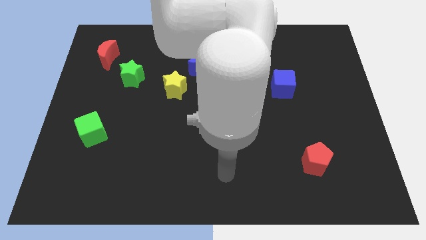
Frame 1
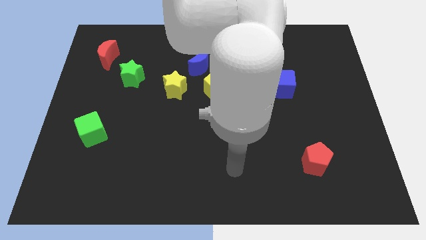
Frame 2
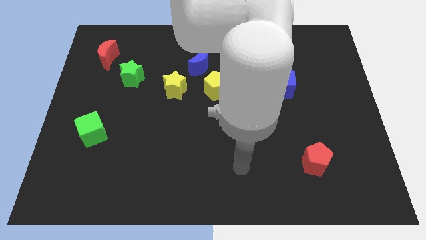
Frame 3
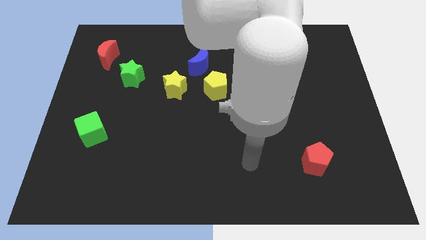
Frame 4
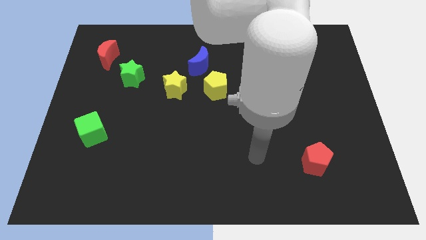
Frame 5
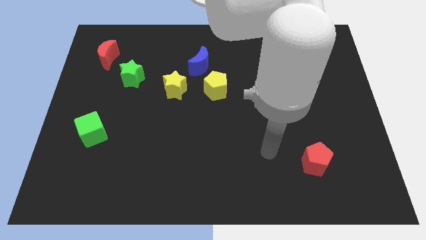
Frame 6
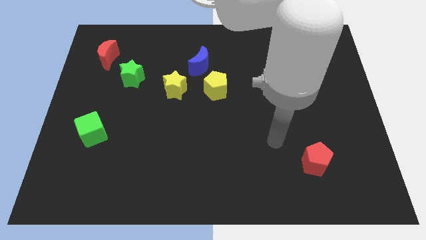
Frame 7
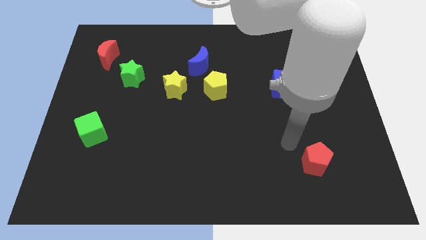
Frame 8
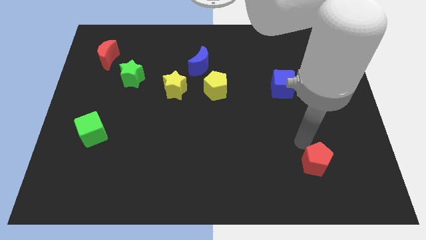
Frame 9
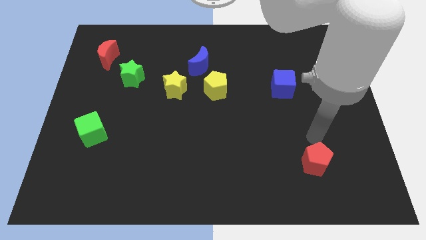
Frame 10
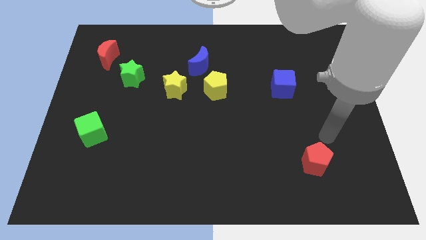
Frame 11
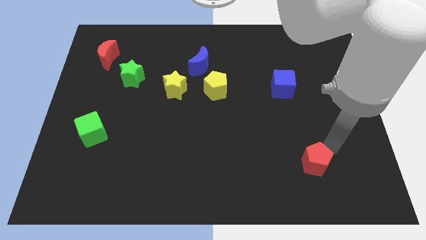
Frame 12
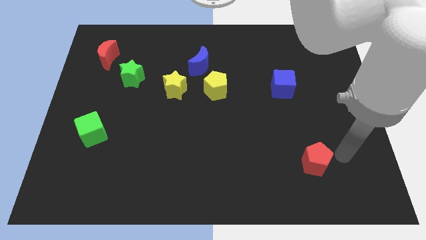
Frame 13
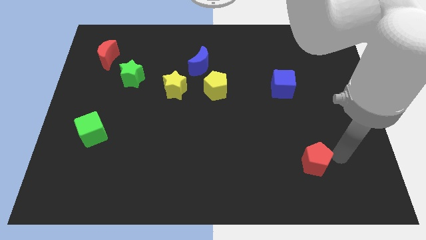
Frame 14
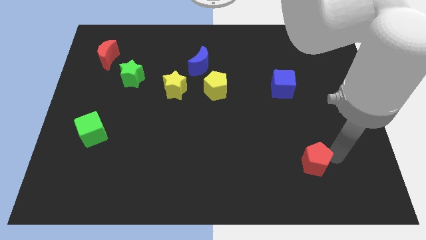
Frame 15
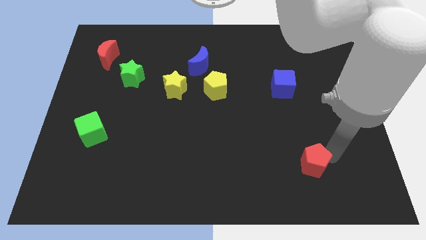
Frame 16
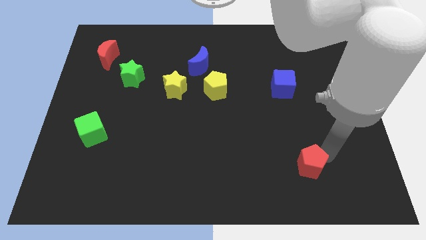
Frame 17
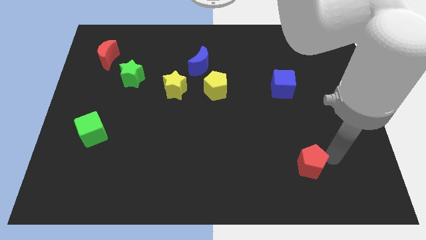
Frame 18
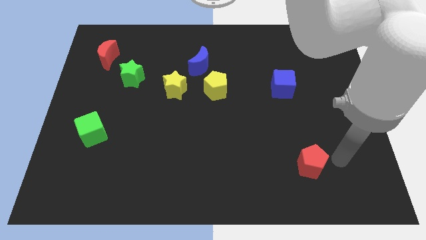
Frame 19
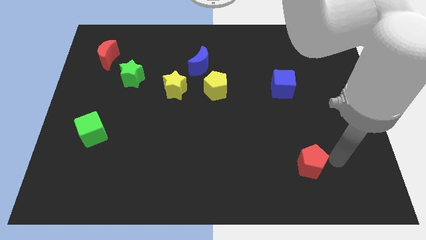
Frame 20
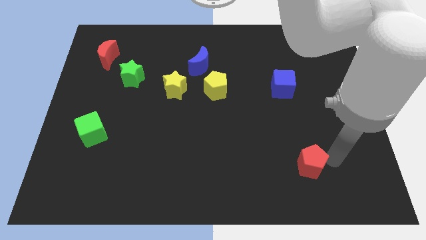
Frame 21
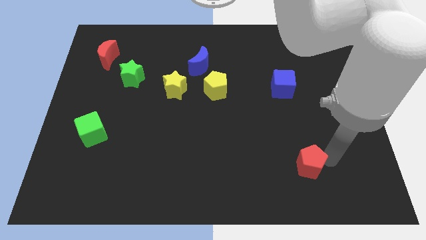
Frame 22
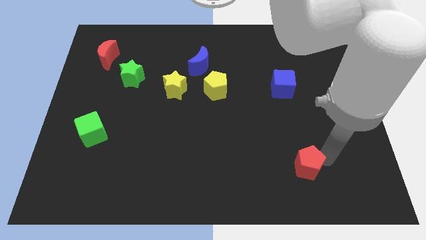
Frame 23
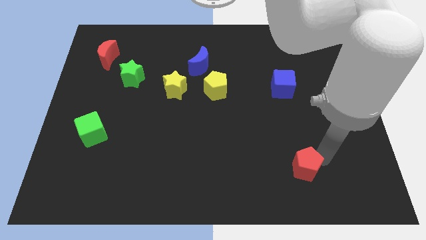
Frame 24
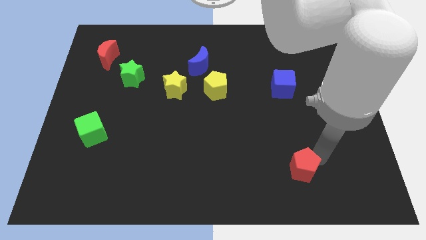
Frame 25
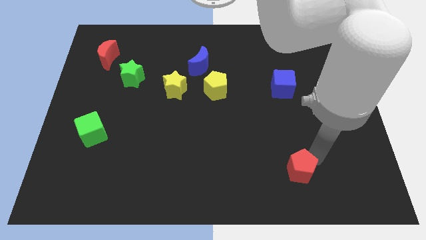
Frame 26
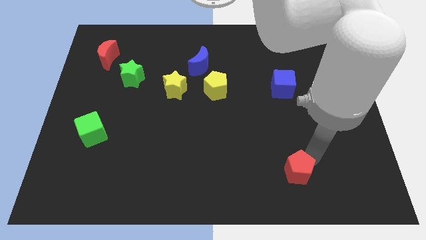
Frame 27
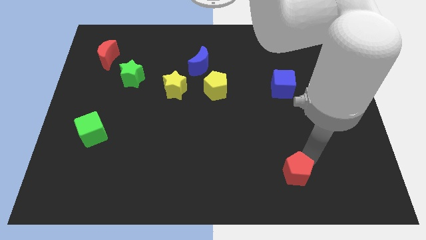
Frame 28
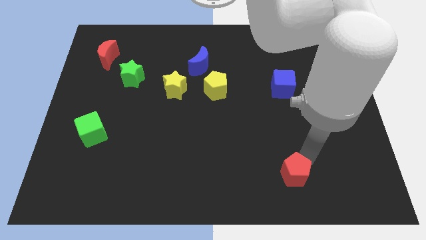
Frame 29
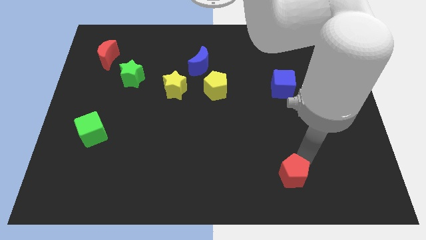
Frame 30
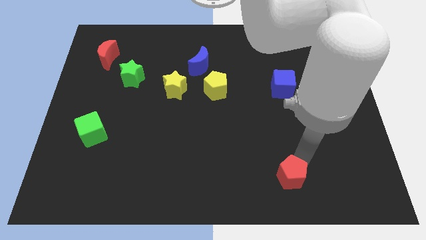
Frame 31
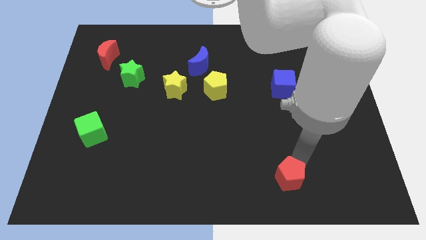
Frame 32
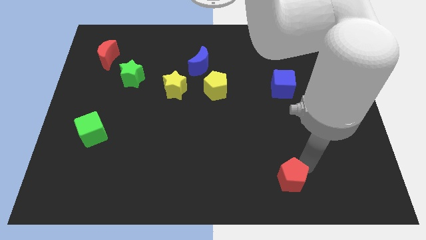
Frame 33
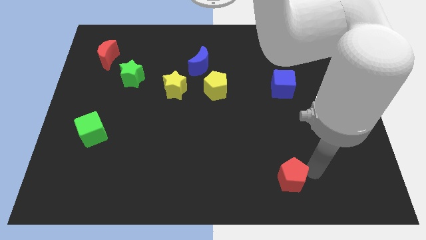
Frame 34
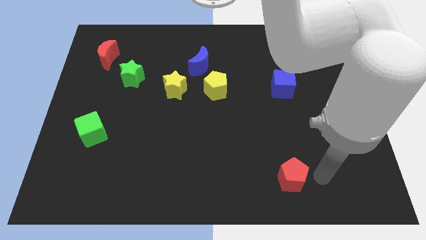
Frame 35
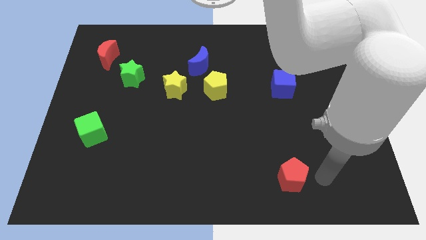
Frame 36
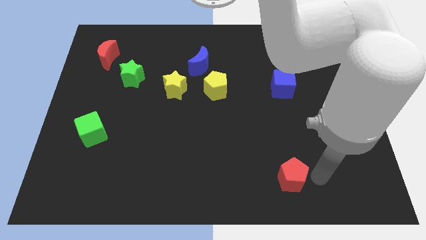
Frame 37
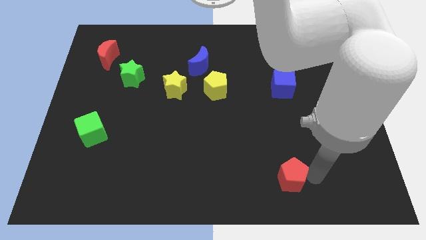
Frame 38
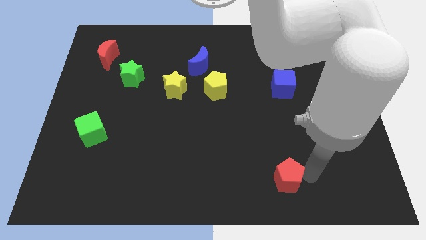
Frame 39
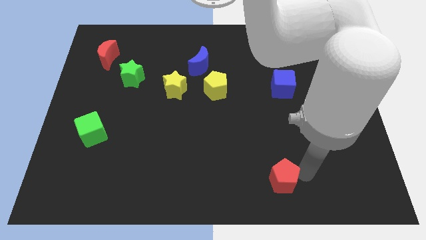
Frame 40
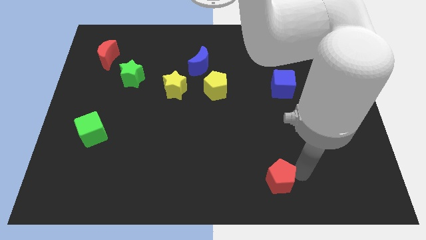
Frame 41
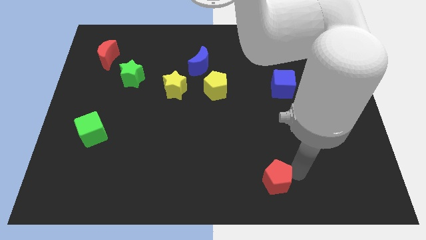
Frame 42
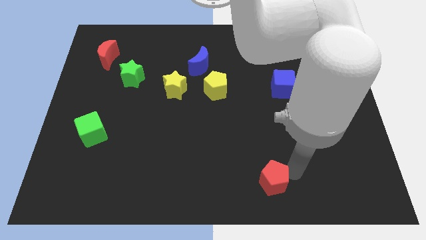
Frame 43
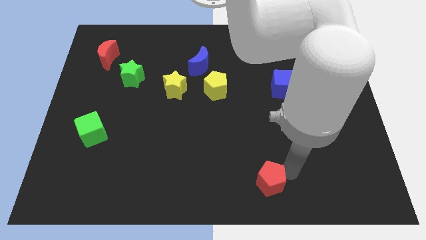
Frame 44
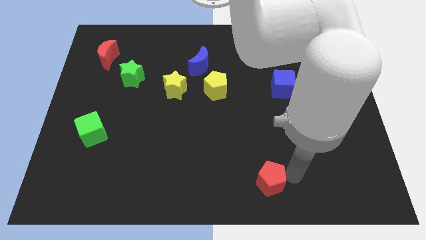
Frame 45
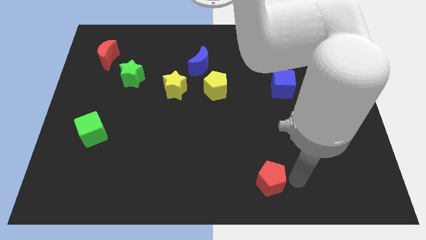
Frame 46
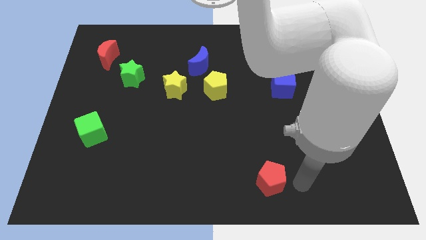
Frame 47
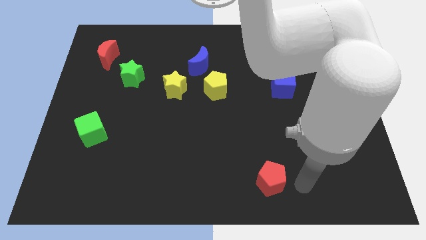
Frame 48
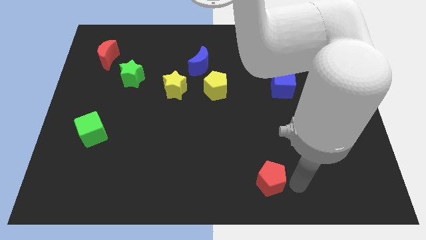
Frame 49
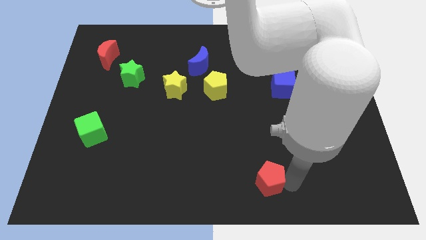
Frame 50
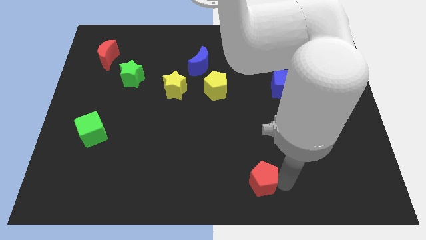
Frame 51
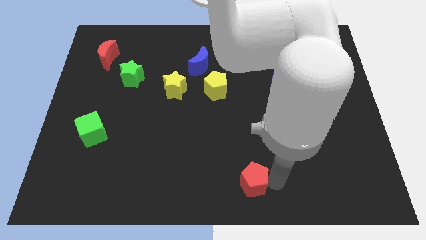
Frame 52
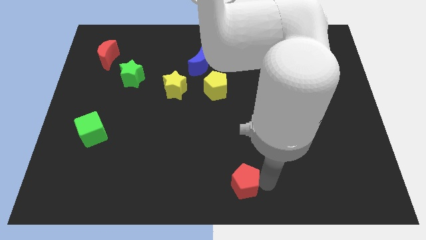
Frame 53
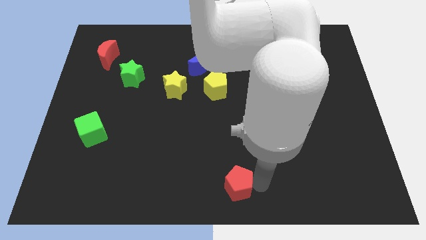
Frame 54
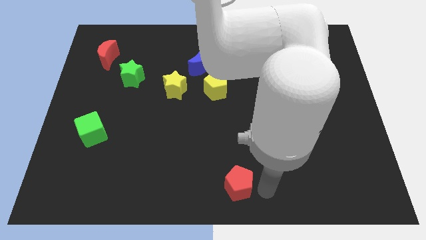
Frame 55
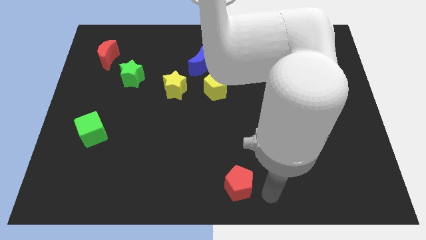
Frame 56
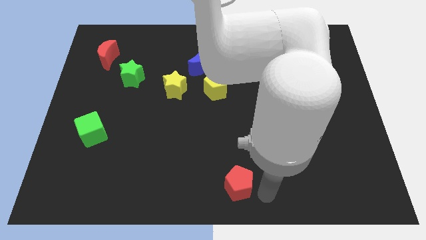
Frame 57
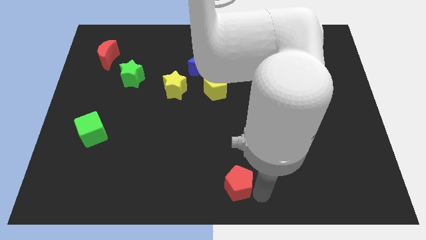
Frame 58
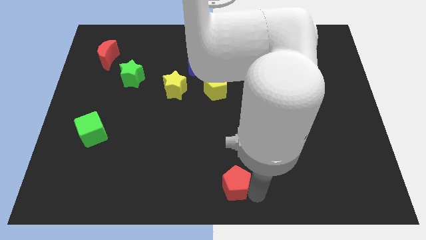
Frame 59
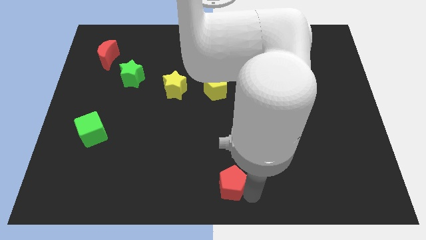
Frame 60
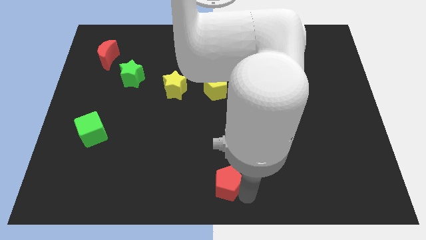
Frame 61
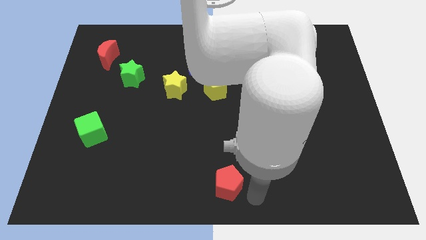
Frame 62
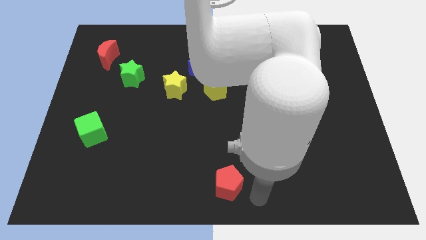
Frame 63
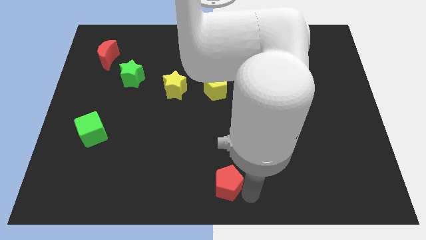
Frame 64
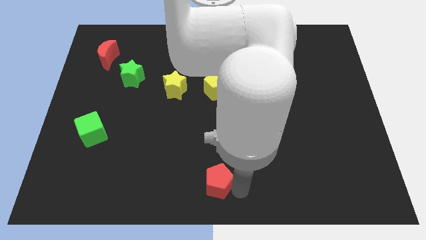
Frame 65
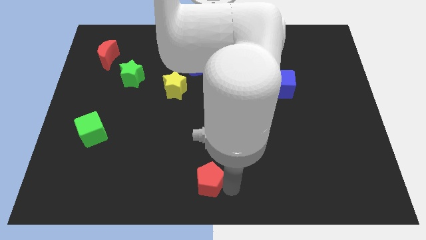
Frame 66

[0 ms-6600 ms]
push the red pentagon to the left

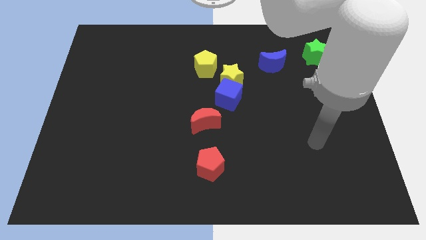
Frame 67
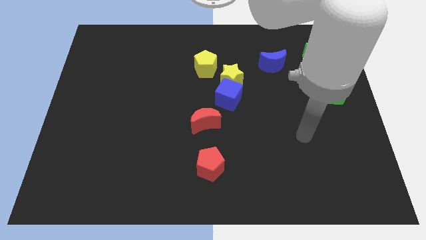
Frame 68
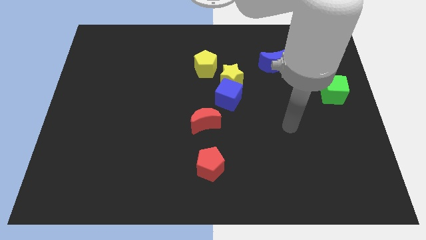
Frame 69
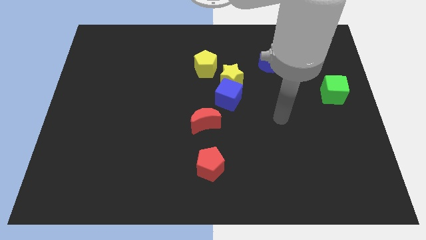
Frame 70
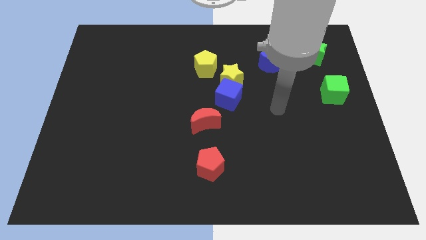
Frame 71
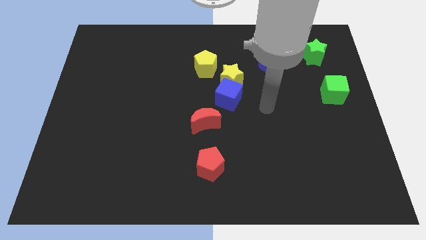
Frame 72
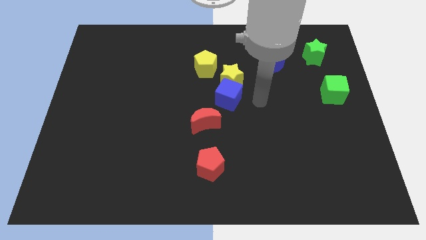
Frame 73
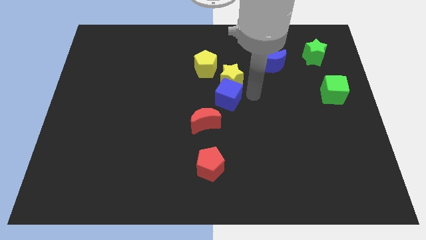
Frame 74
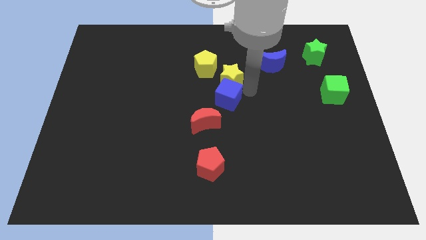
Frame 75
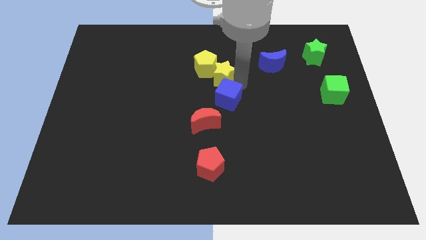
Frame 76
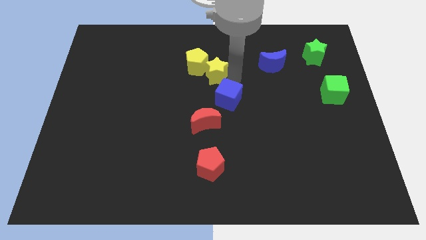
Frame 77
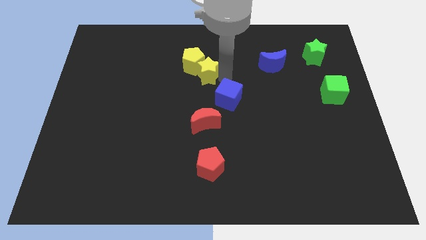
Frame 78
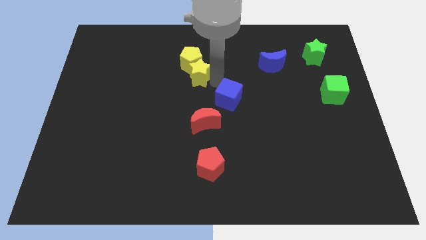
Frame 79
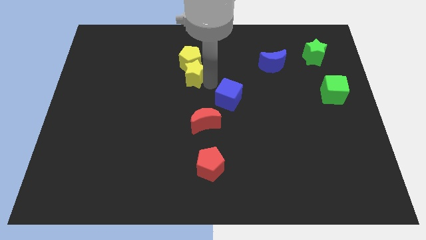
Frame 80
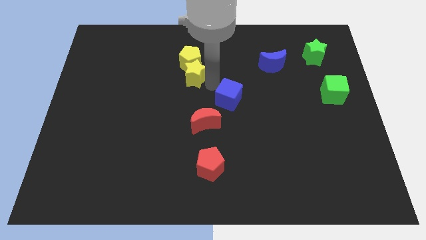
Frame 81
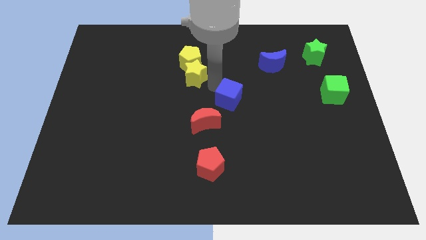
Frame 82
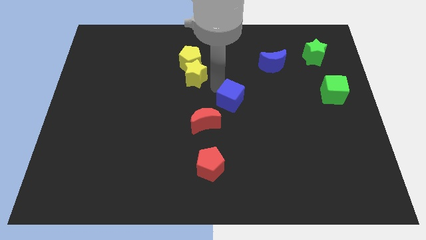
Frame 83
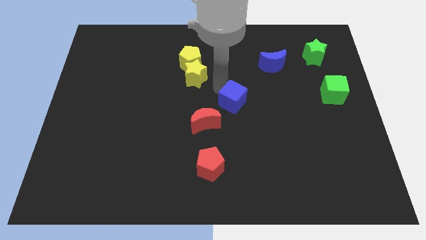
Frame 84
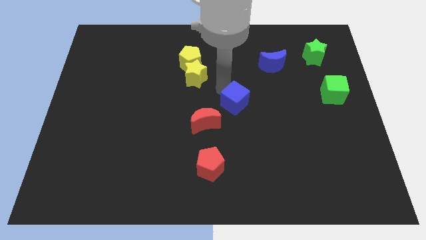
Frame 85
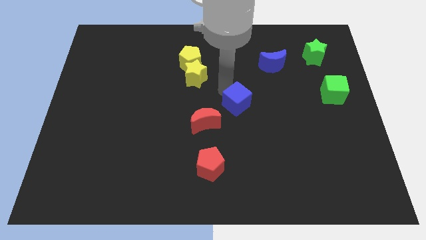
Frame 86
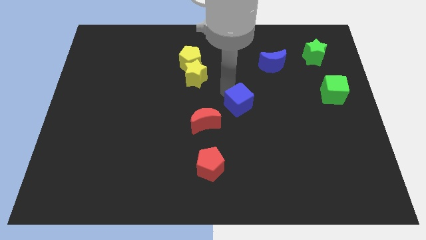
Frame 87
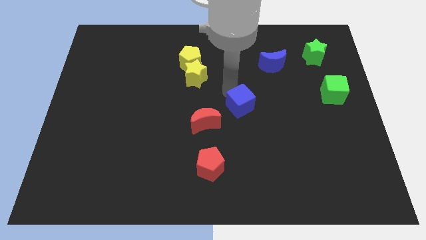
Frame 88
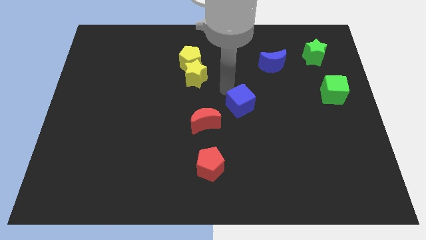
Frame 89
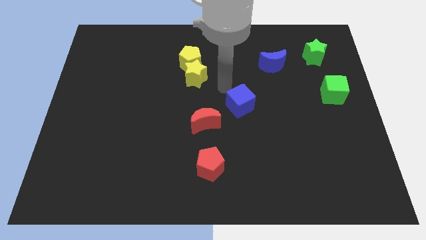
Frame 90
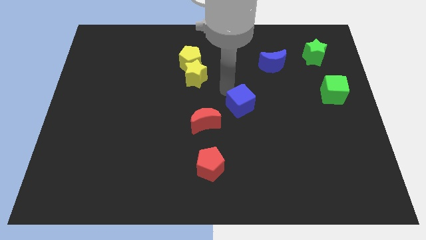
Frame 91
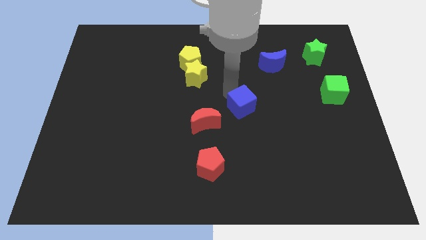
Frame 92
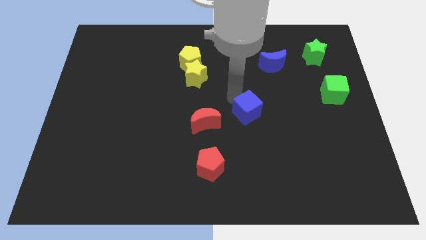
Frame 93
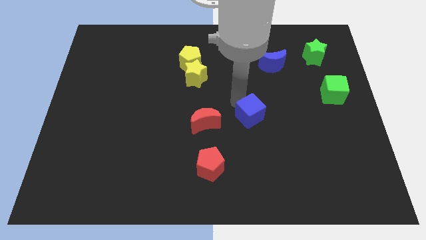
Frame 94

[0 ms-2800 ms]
slightly move the blue cube downwards and to the right
